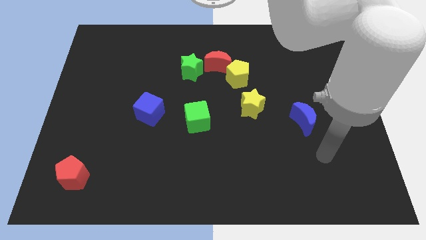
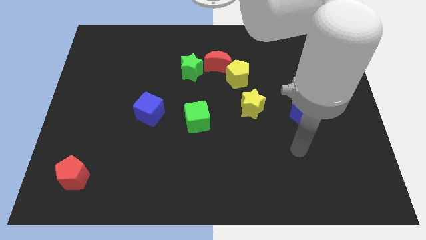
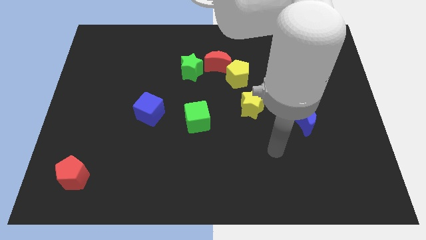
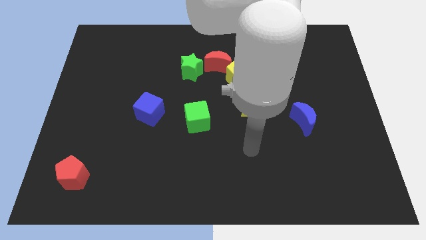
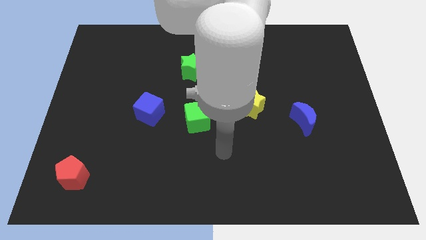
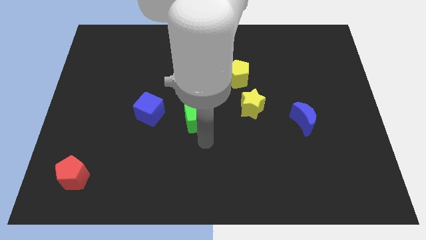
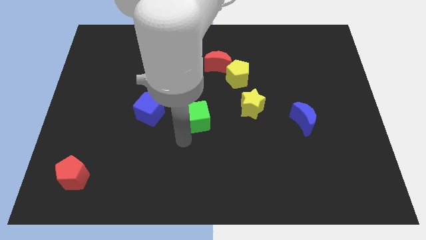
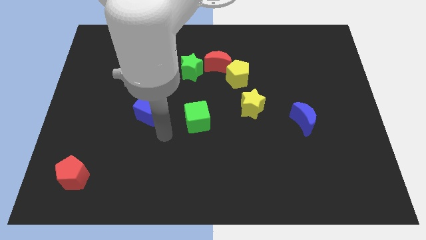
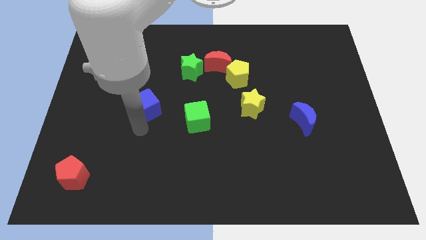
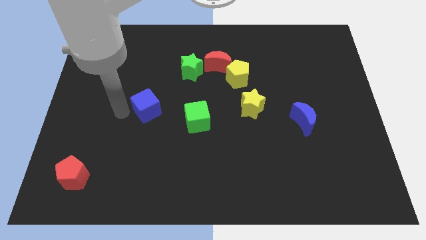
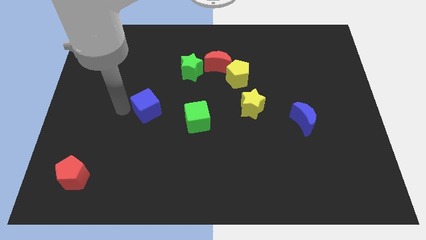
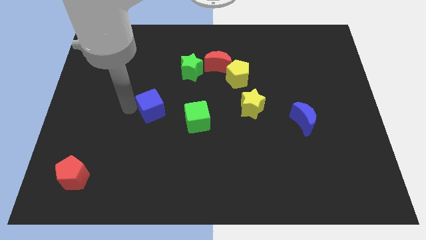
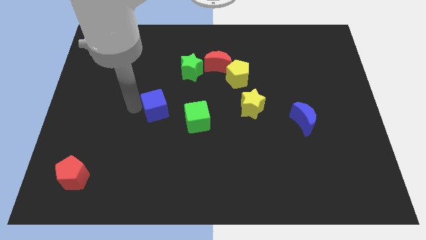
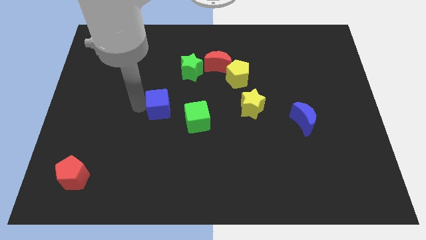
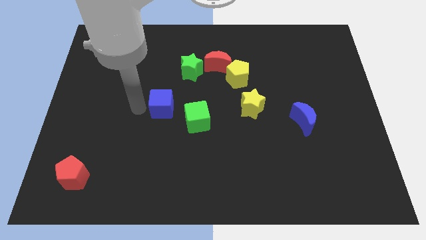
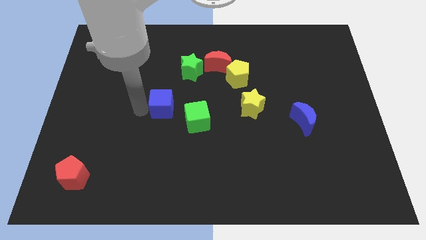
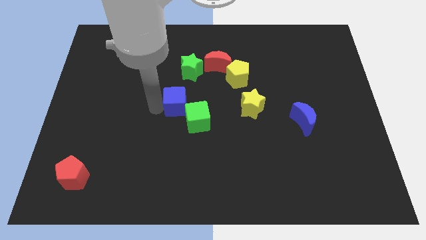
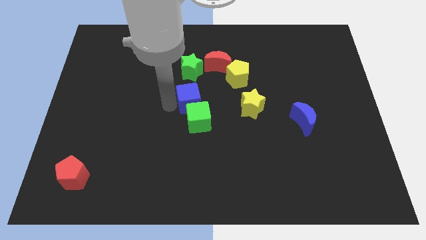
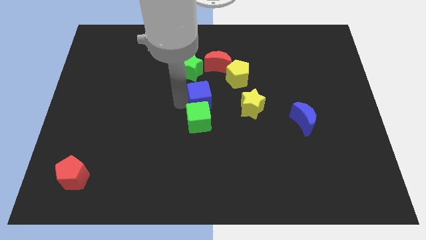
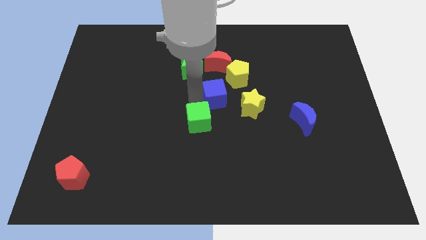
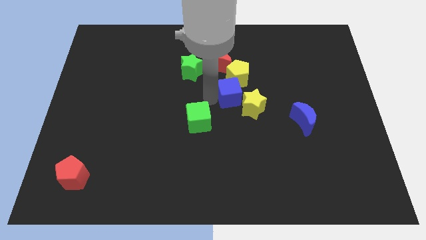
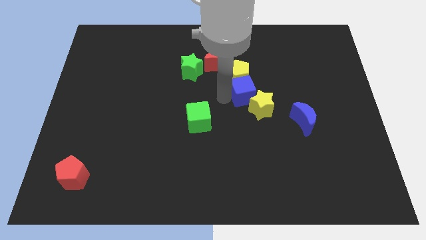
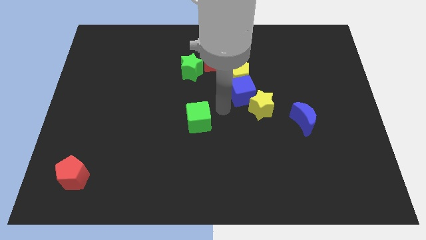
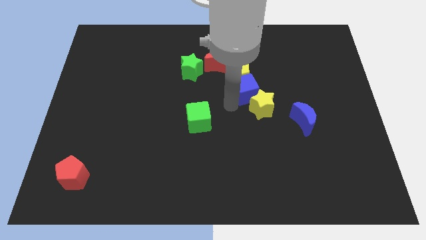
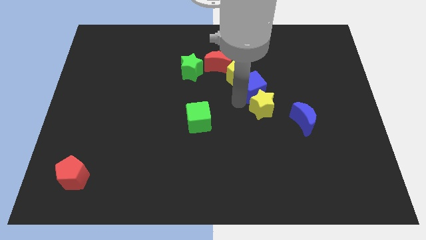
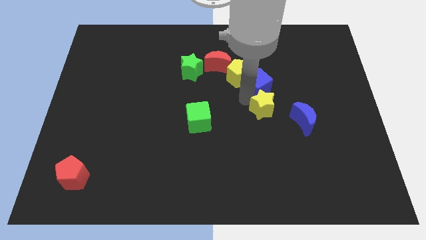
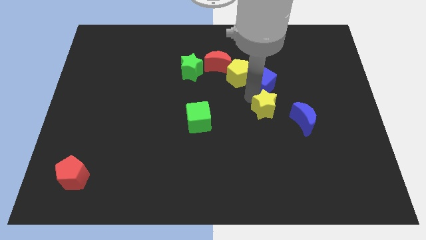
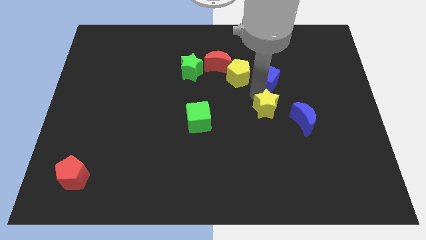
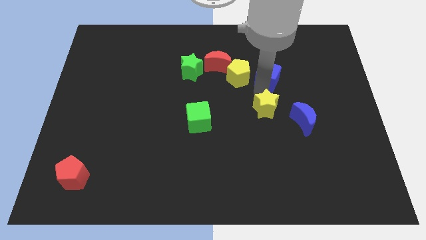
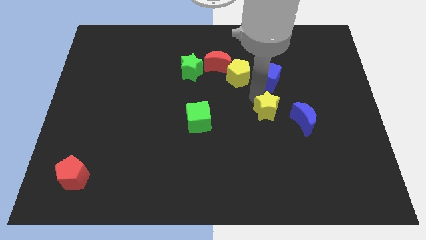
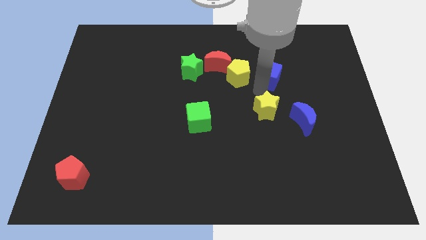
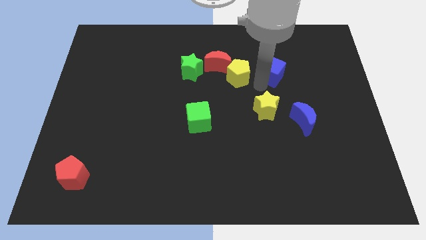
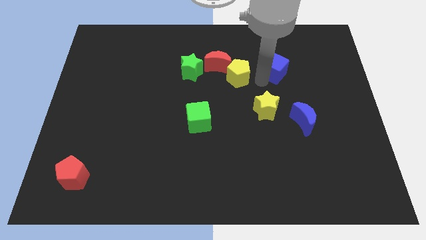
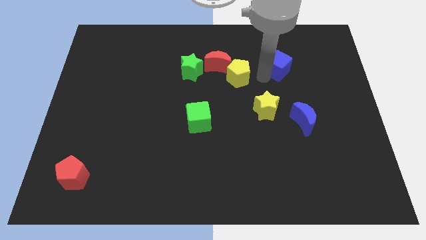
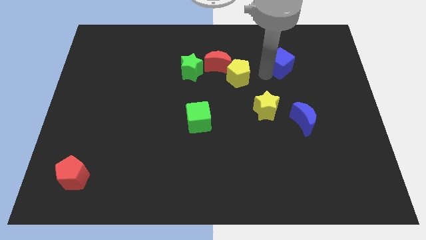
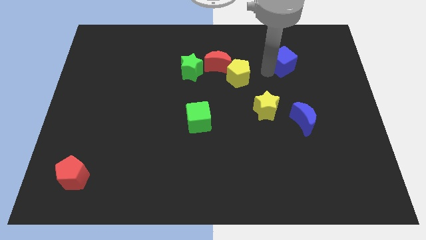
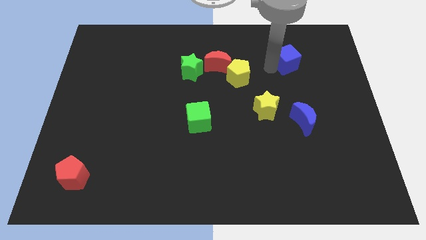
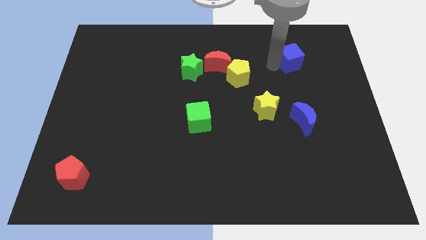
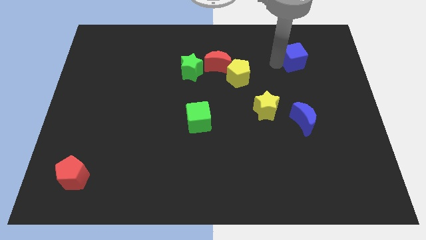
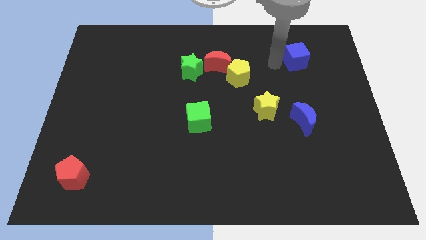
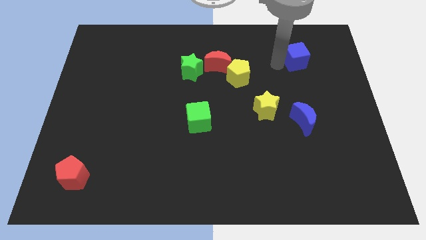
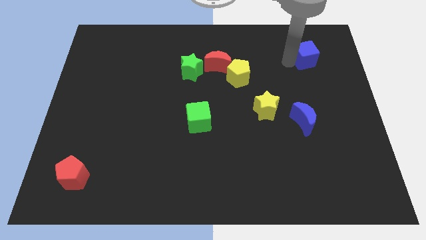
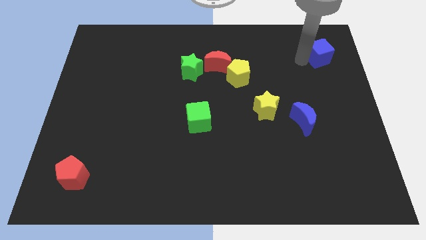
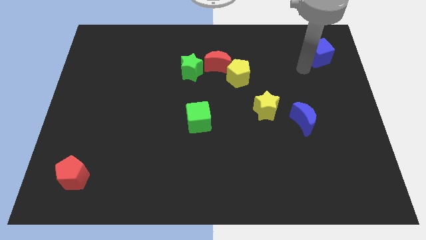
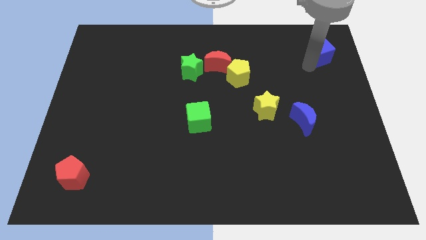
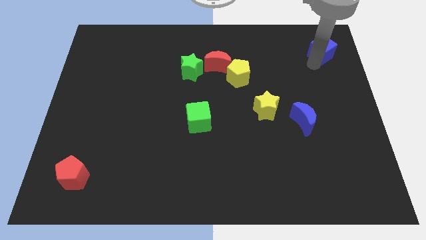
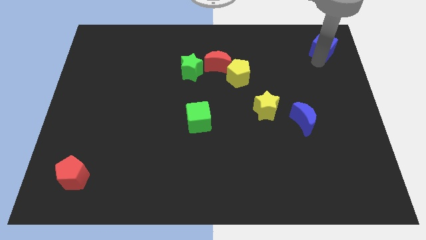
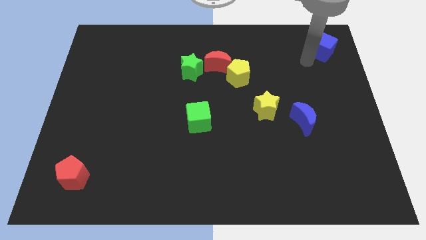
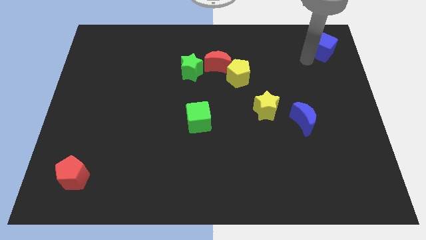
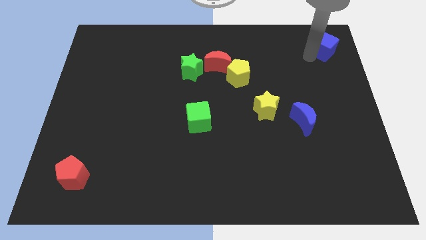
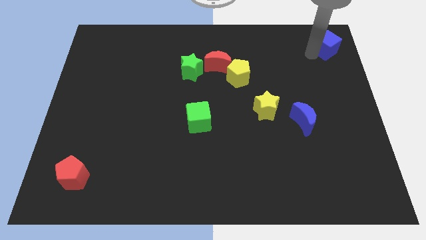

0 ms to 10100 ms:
slide the blue cube to the top right corner

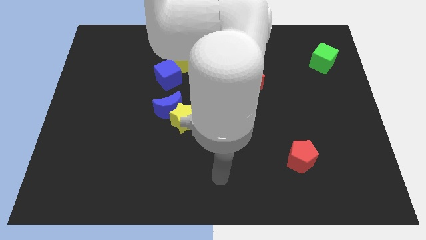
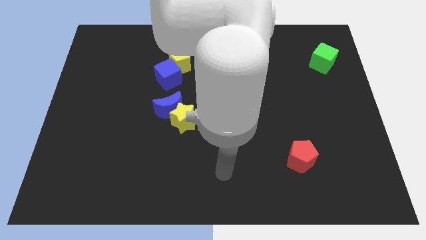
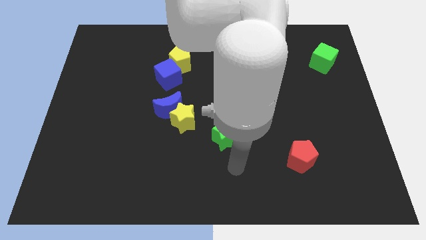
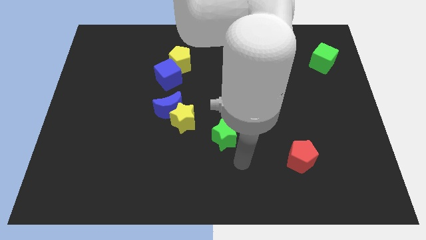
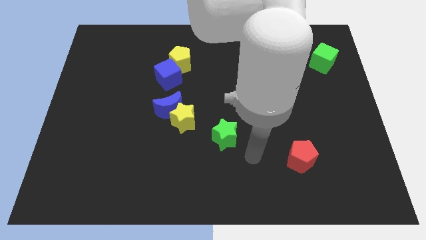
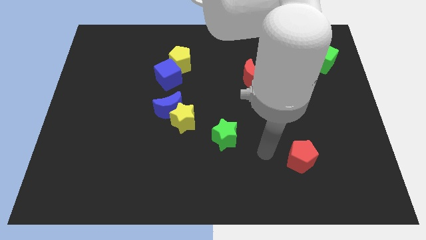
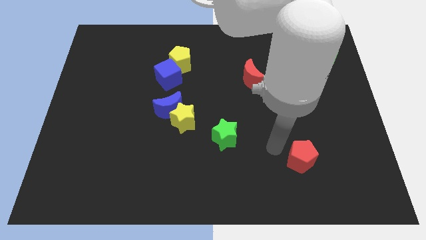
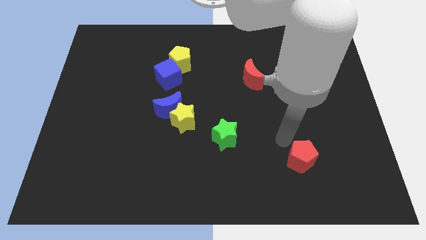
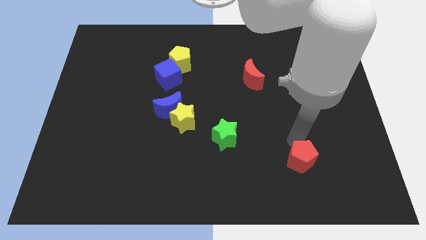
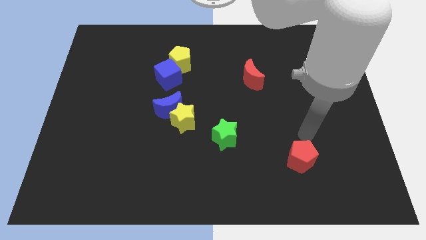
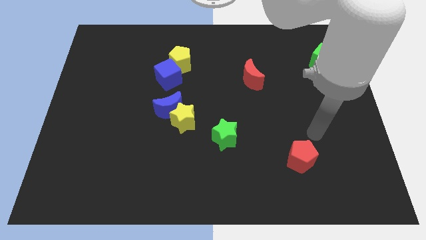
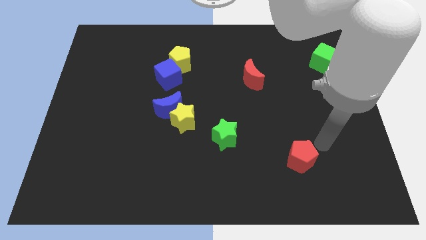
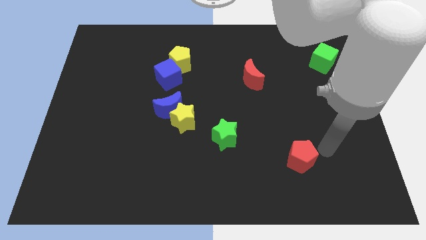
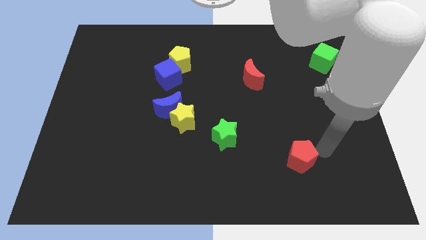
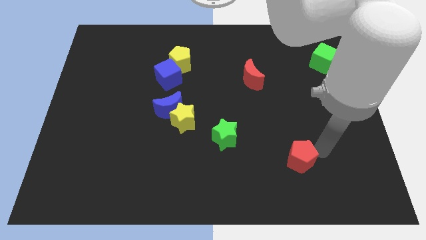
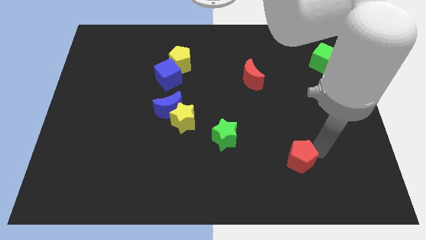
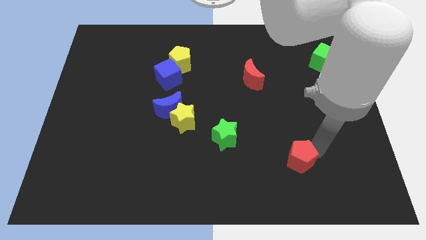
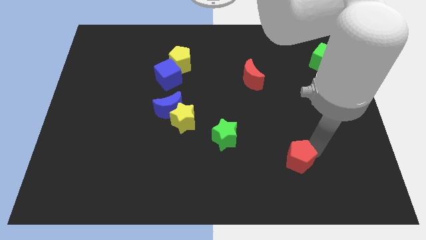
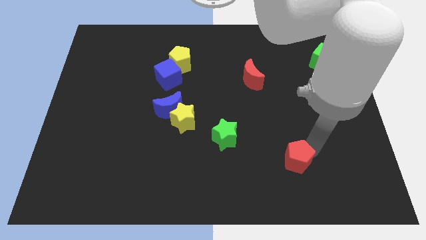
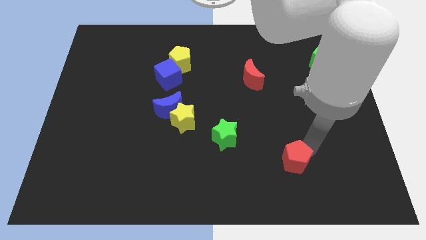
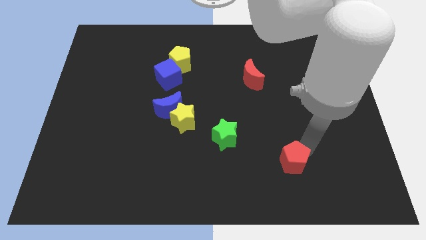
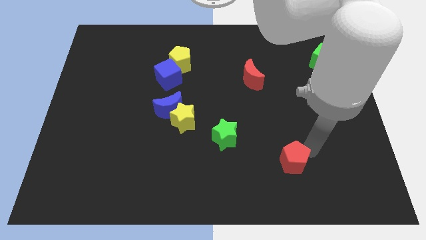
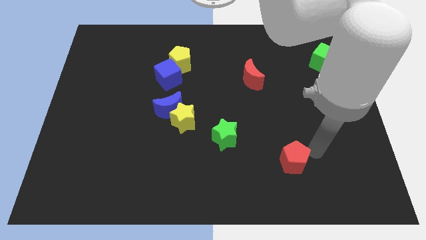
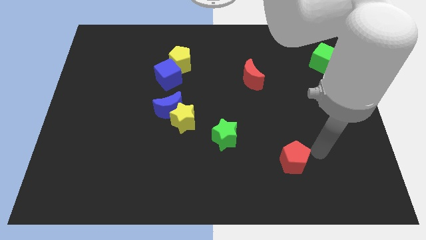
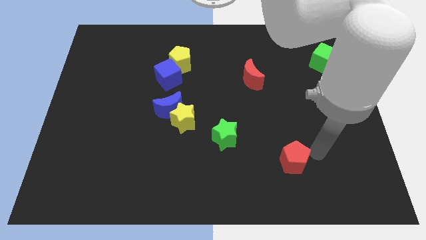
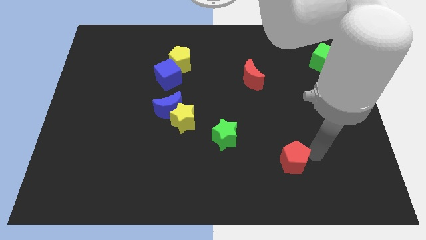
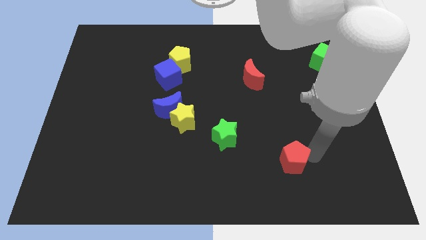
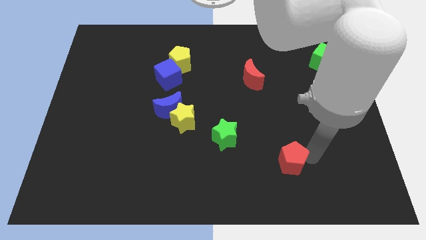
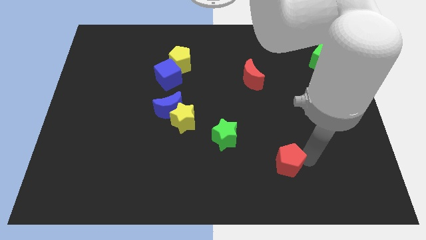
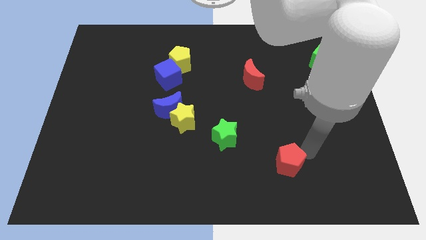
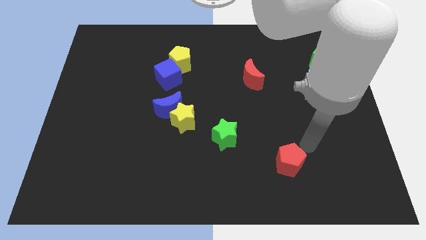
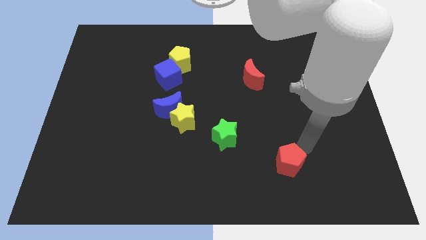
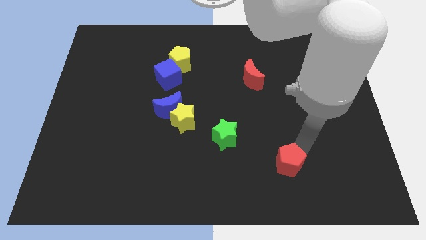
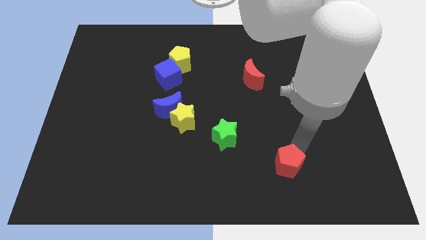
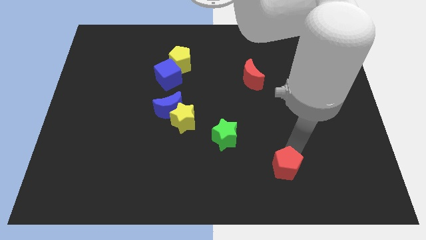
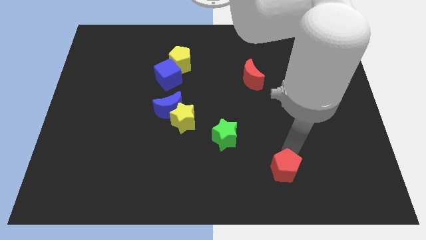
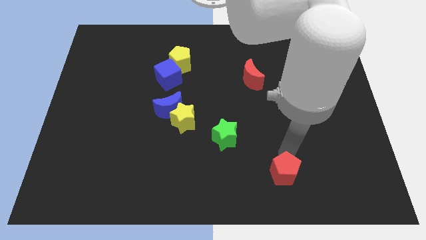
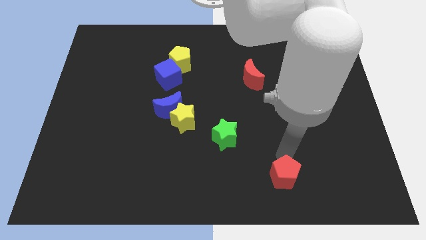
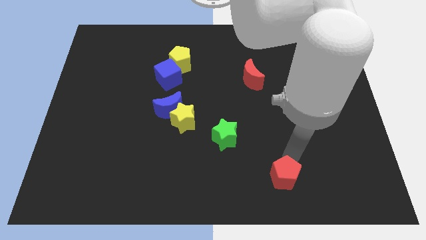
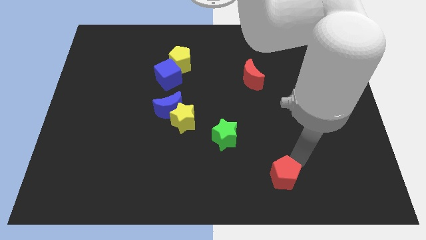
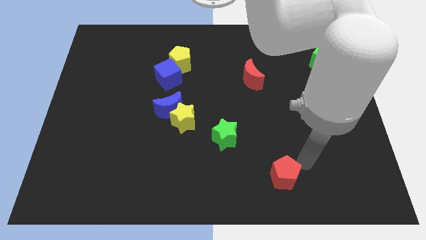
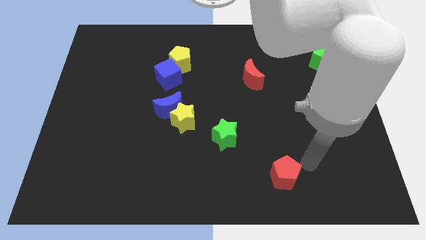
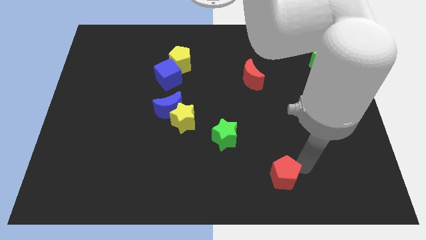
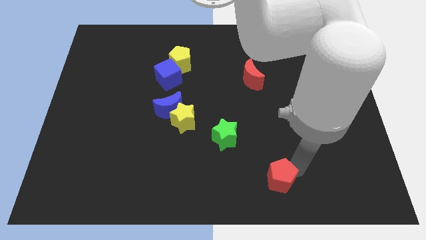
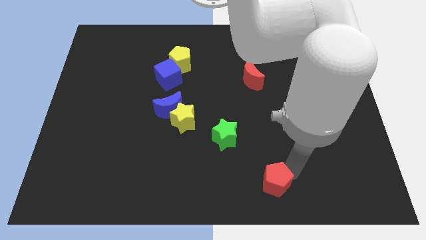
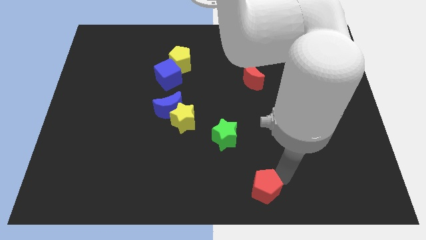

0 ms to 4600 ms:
move the red pentagon to the bottom
